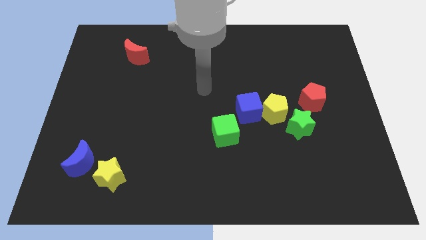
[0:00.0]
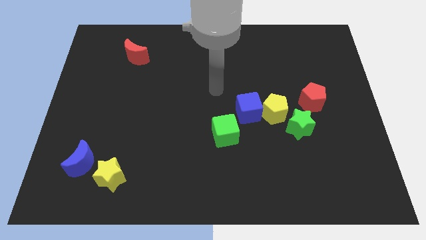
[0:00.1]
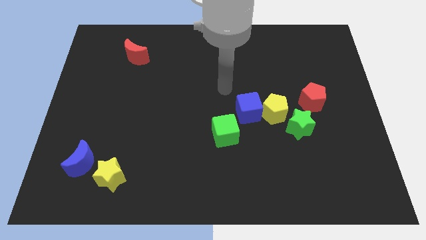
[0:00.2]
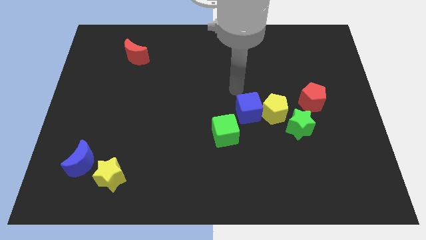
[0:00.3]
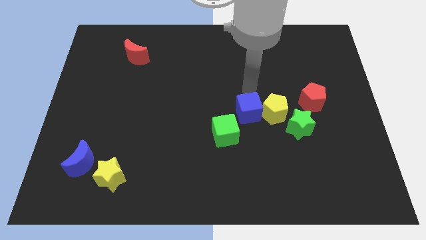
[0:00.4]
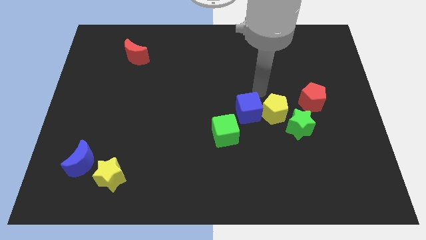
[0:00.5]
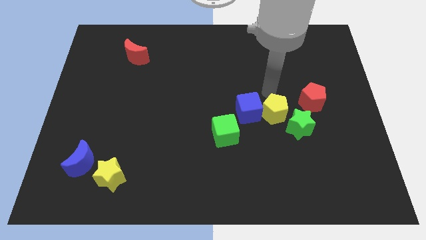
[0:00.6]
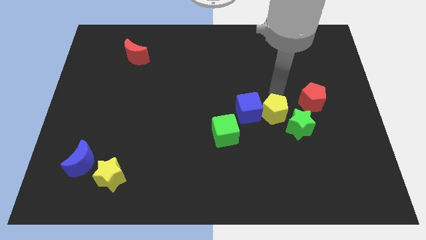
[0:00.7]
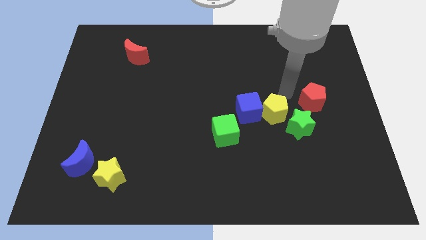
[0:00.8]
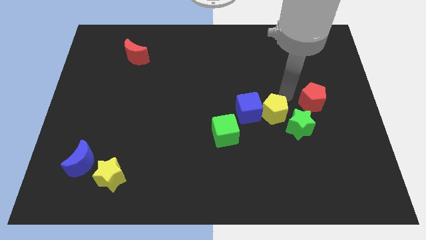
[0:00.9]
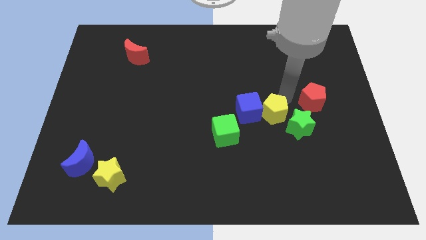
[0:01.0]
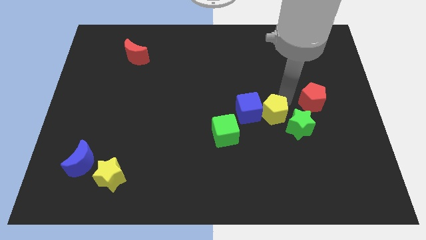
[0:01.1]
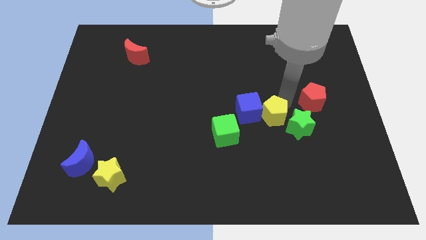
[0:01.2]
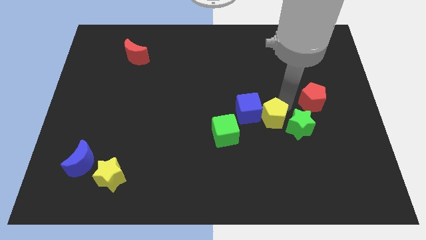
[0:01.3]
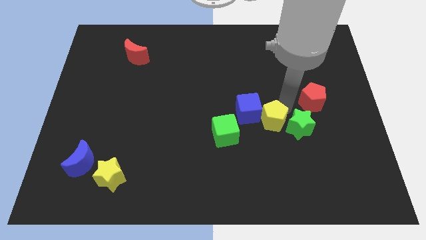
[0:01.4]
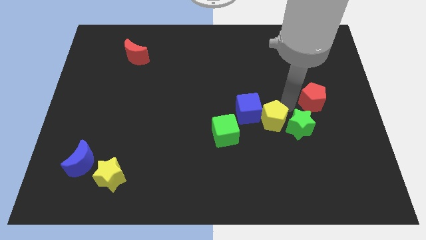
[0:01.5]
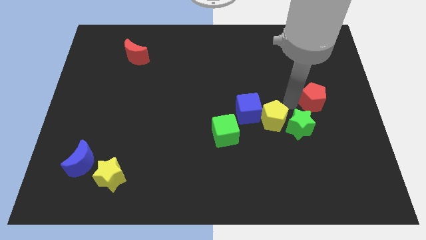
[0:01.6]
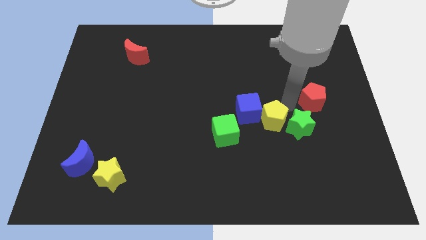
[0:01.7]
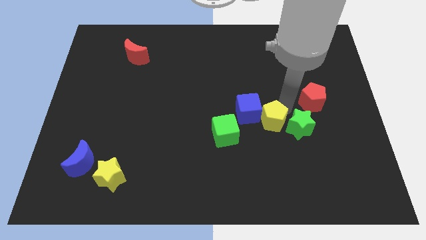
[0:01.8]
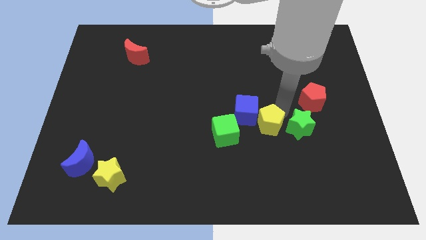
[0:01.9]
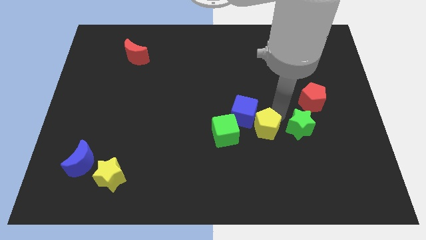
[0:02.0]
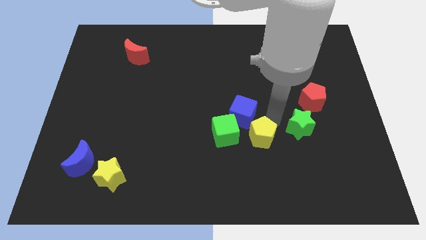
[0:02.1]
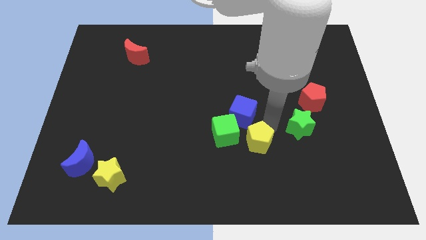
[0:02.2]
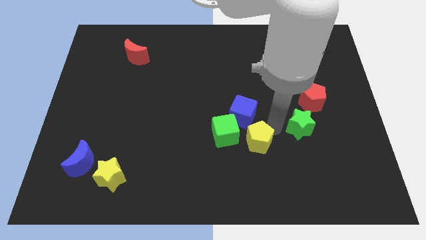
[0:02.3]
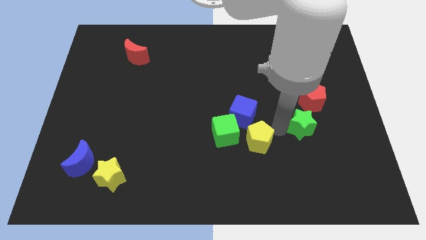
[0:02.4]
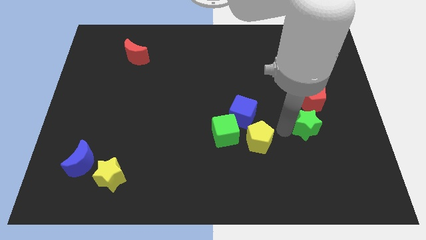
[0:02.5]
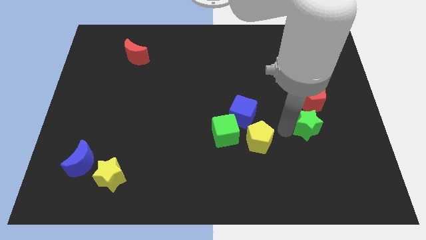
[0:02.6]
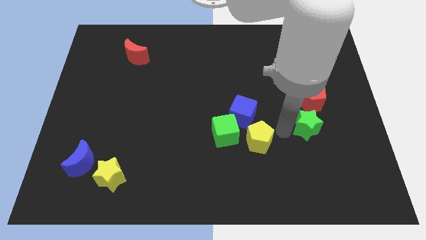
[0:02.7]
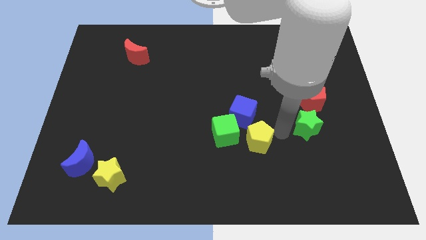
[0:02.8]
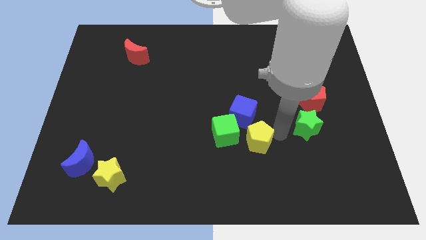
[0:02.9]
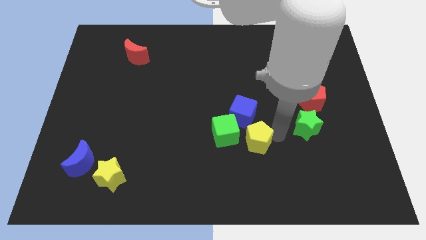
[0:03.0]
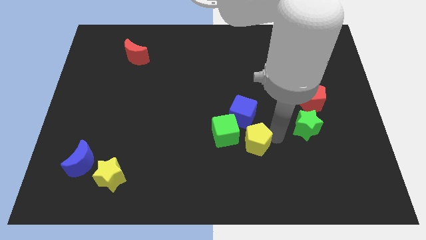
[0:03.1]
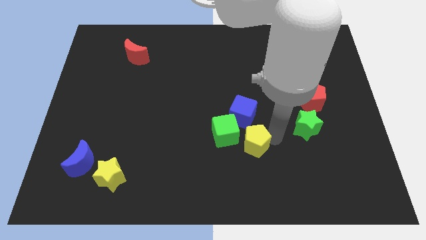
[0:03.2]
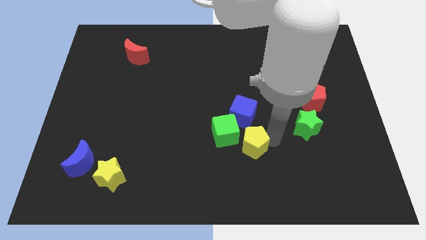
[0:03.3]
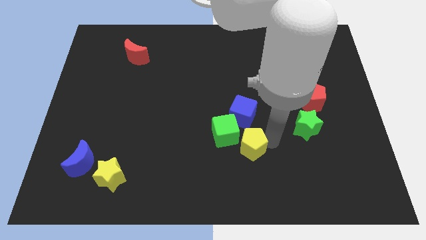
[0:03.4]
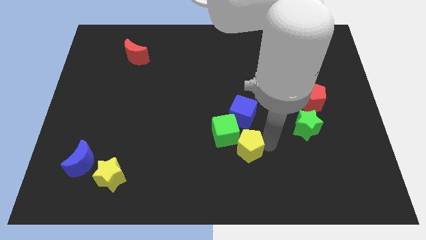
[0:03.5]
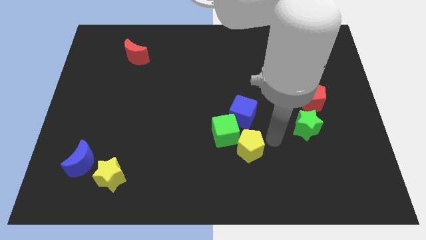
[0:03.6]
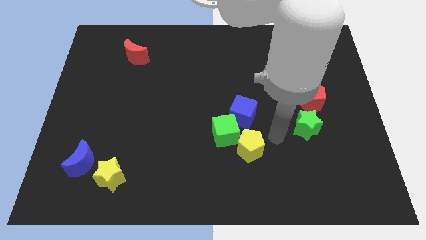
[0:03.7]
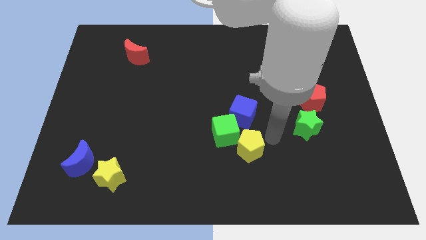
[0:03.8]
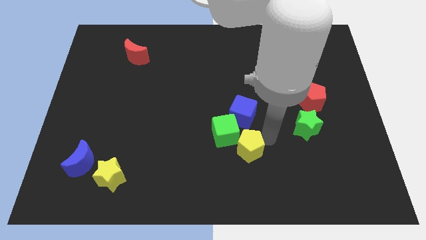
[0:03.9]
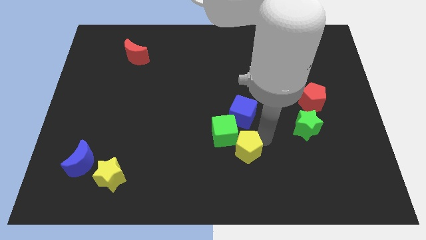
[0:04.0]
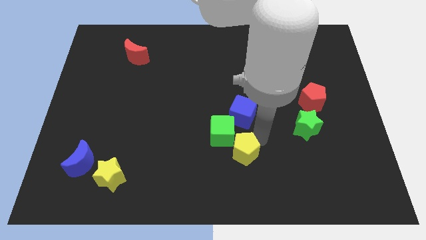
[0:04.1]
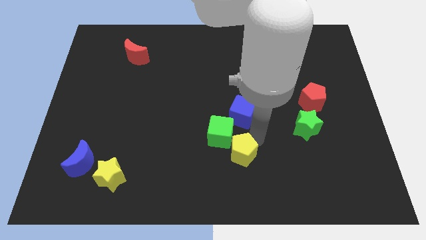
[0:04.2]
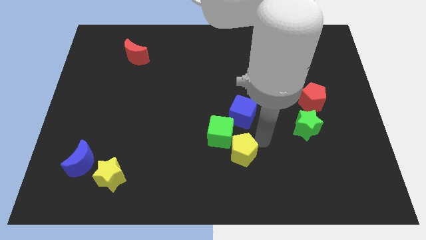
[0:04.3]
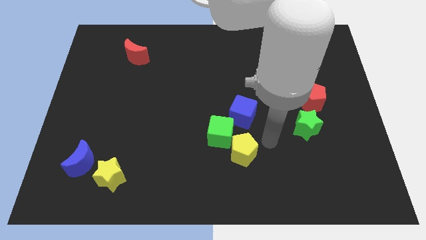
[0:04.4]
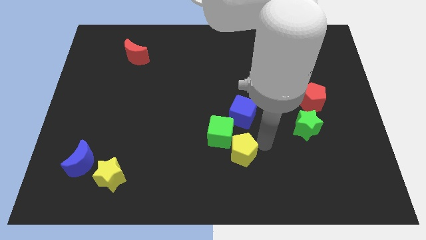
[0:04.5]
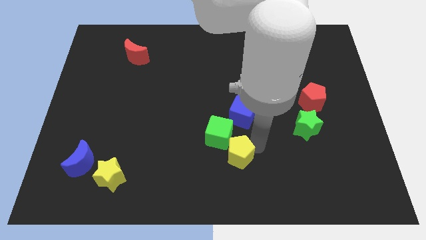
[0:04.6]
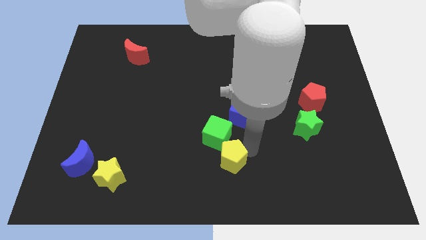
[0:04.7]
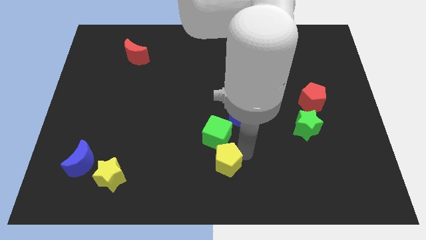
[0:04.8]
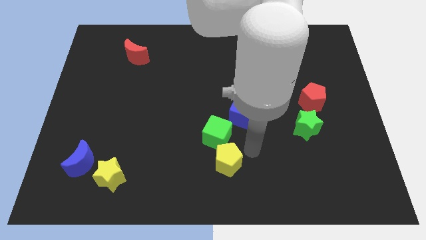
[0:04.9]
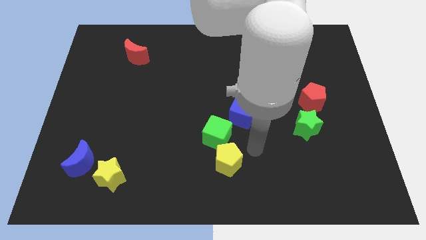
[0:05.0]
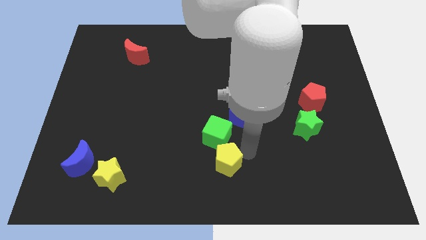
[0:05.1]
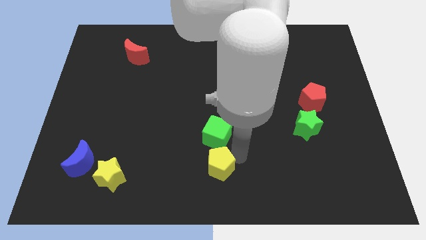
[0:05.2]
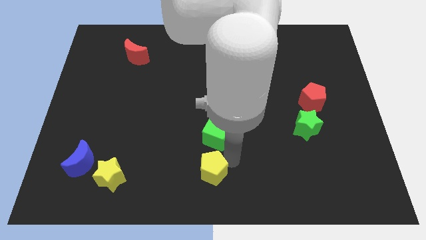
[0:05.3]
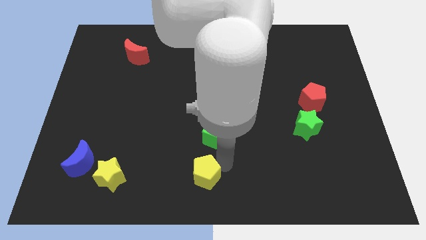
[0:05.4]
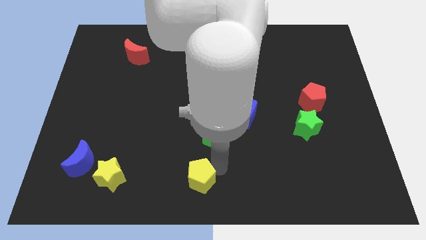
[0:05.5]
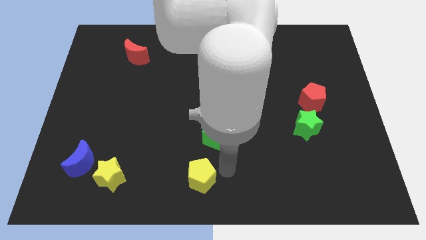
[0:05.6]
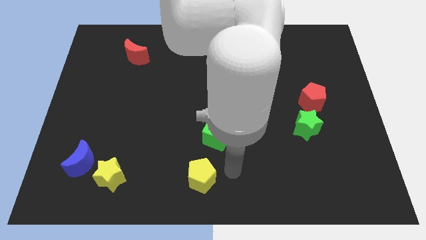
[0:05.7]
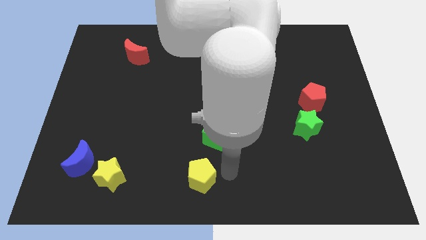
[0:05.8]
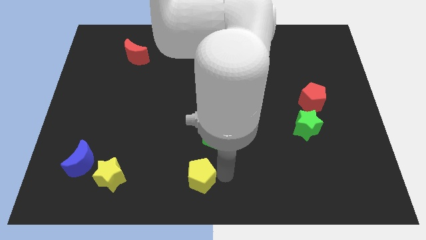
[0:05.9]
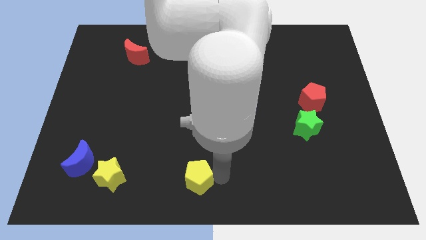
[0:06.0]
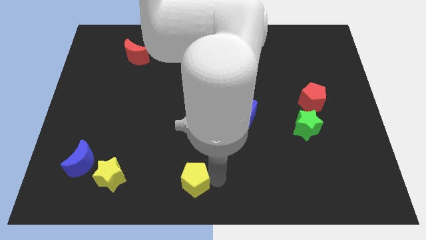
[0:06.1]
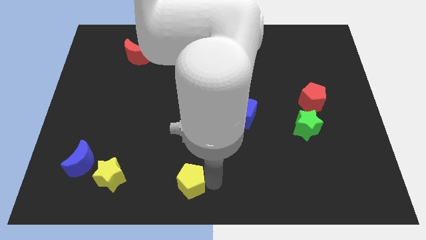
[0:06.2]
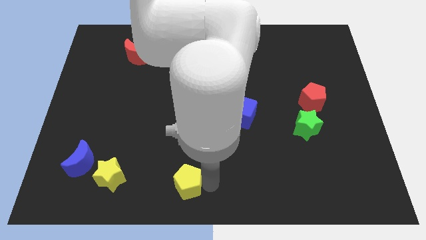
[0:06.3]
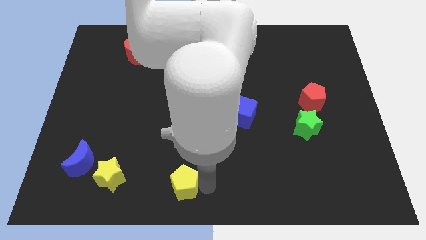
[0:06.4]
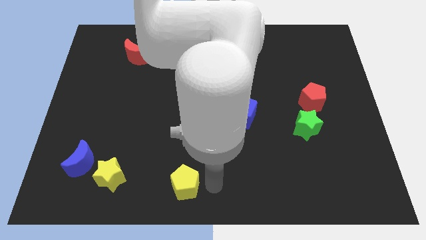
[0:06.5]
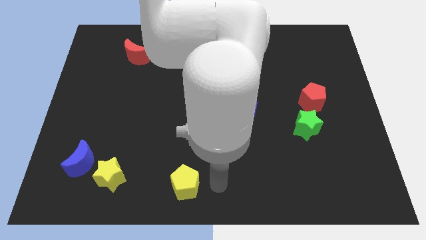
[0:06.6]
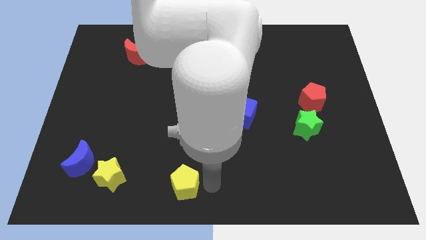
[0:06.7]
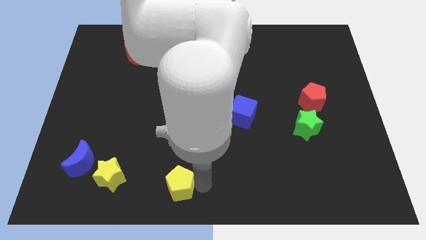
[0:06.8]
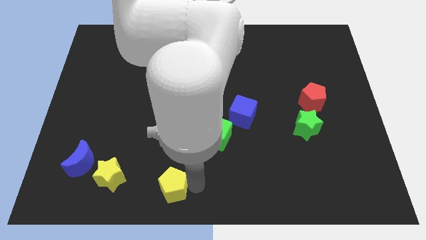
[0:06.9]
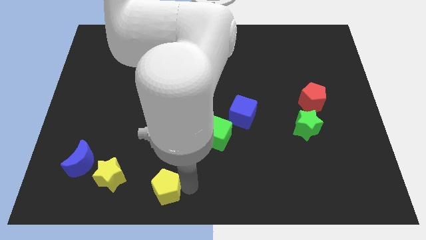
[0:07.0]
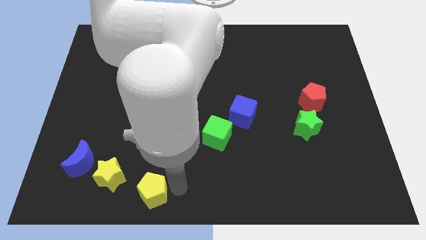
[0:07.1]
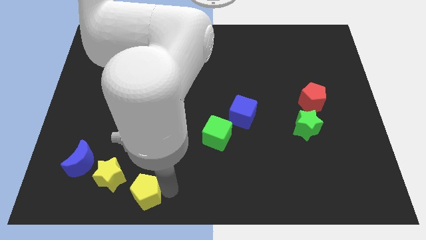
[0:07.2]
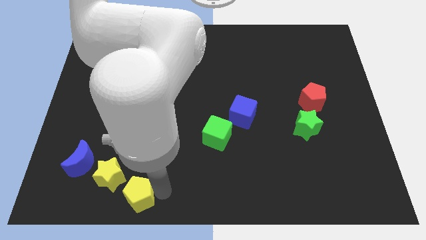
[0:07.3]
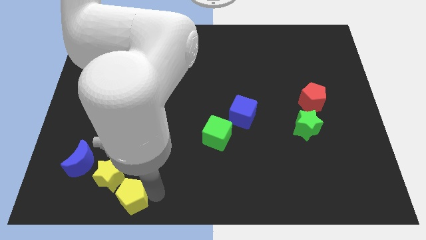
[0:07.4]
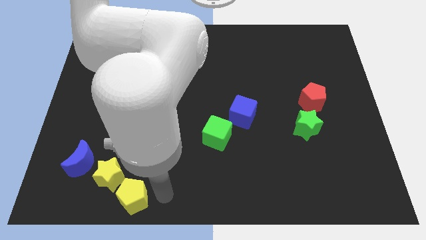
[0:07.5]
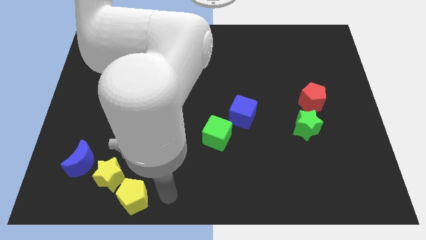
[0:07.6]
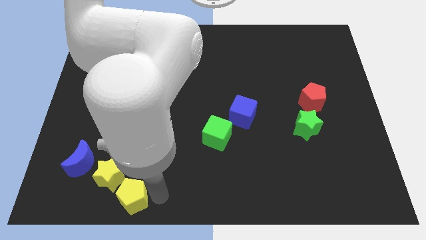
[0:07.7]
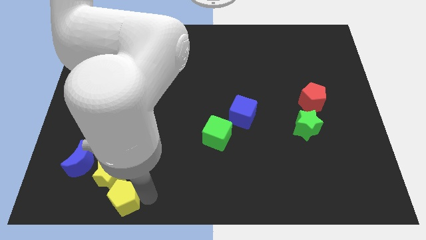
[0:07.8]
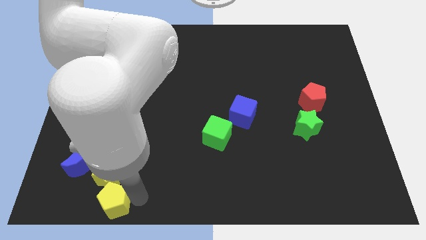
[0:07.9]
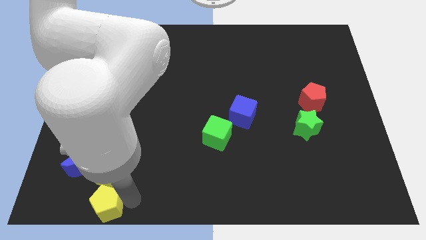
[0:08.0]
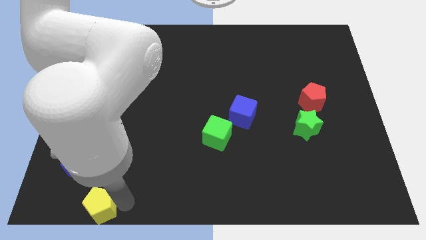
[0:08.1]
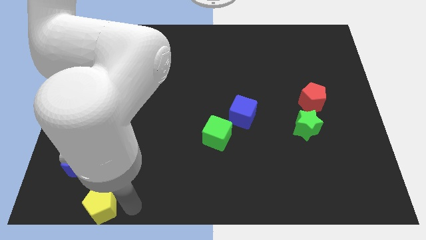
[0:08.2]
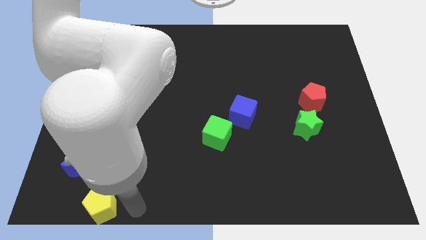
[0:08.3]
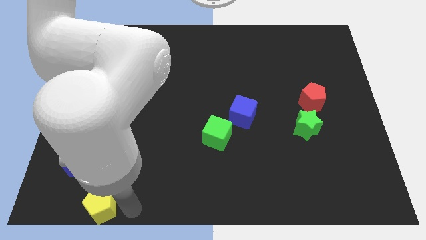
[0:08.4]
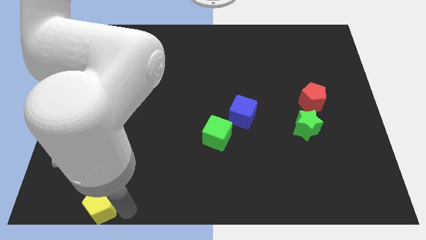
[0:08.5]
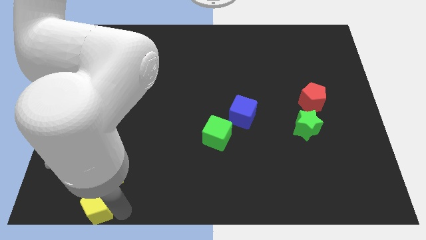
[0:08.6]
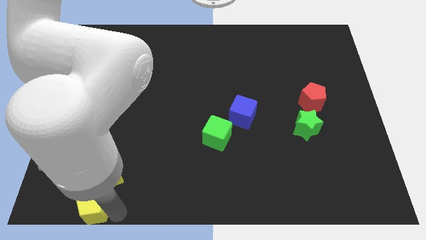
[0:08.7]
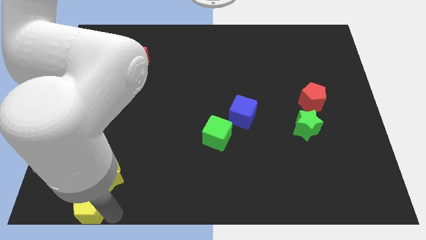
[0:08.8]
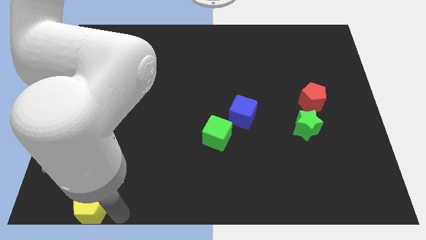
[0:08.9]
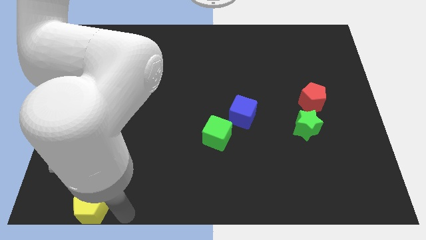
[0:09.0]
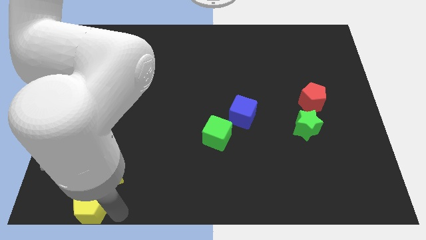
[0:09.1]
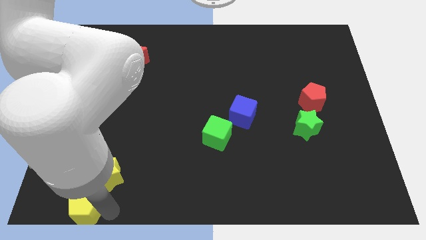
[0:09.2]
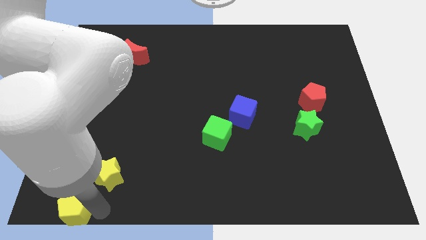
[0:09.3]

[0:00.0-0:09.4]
slide the yellow pentagon to the lower left corner
